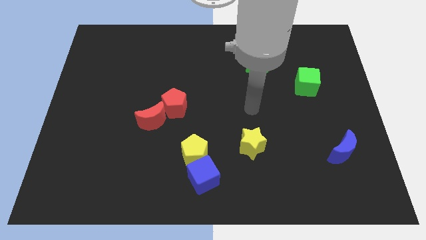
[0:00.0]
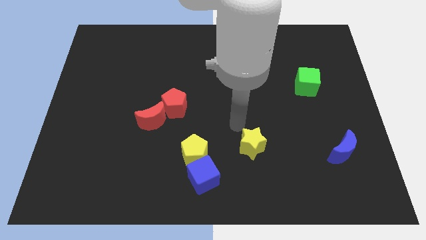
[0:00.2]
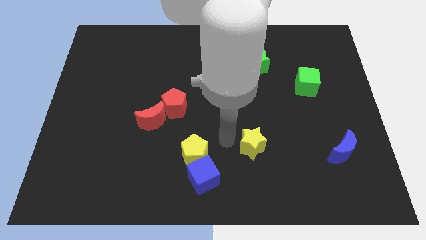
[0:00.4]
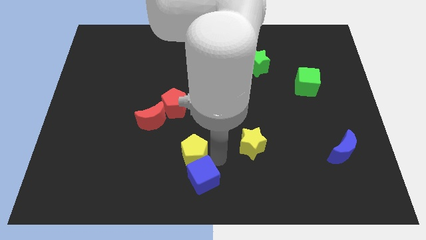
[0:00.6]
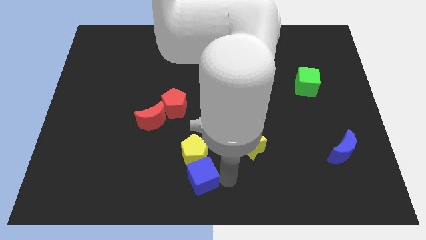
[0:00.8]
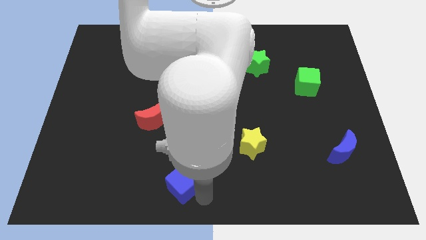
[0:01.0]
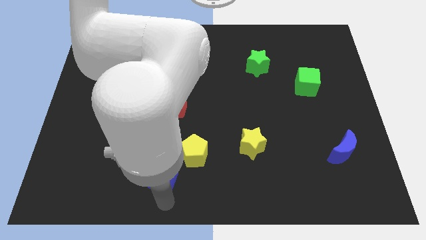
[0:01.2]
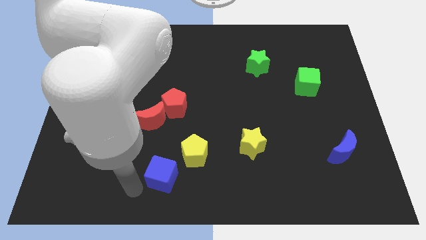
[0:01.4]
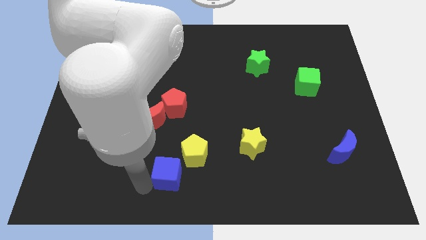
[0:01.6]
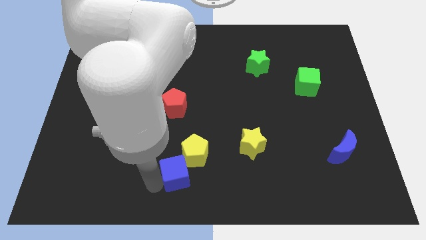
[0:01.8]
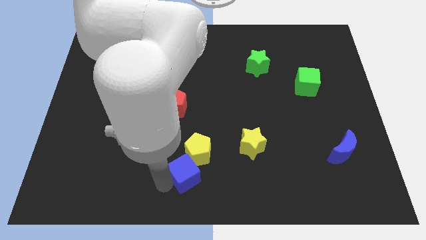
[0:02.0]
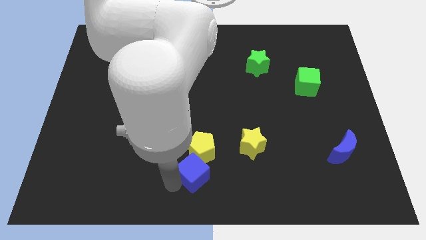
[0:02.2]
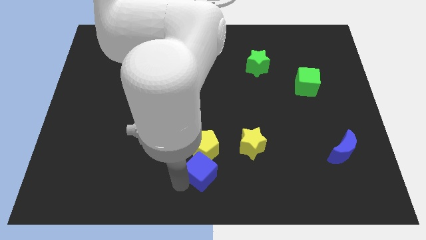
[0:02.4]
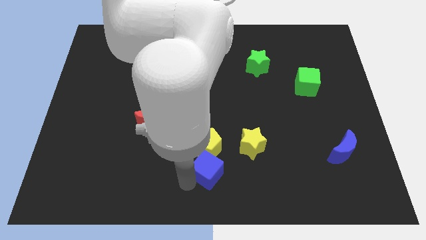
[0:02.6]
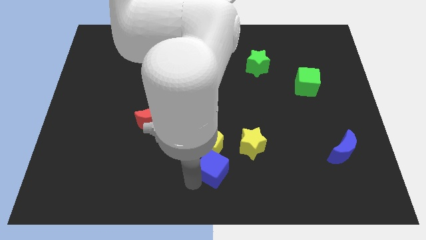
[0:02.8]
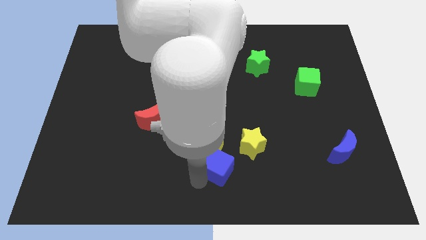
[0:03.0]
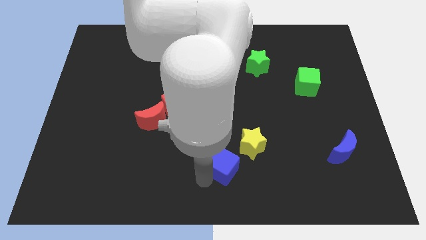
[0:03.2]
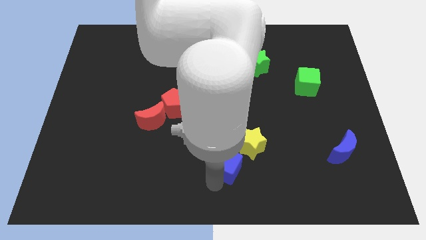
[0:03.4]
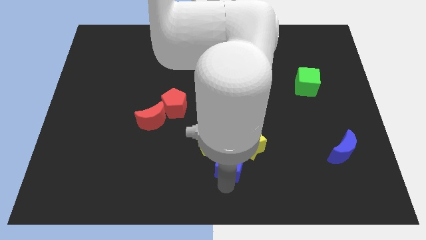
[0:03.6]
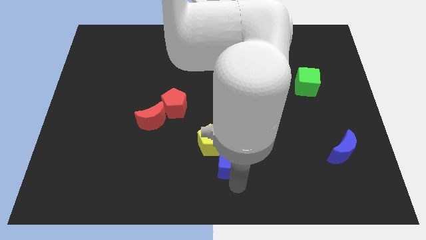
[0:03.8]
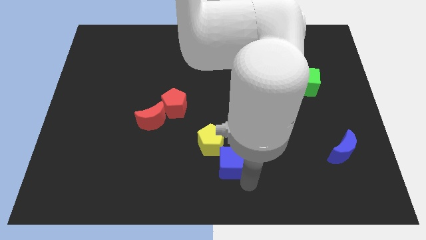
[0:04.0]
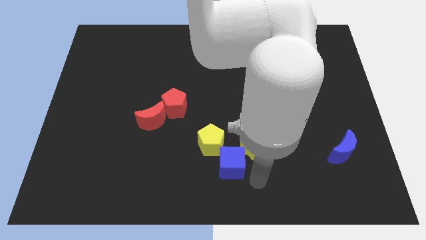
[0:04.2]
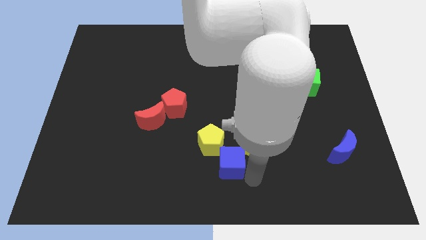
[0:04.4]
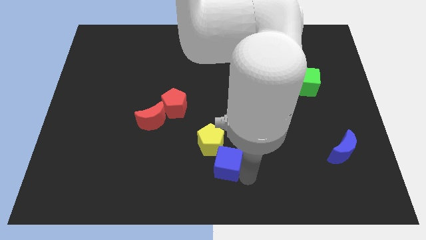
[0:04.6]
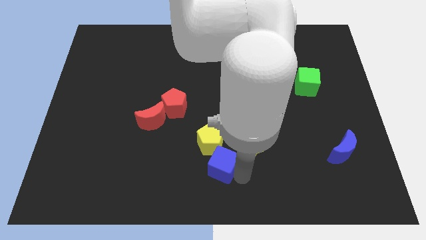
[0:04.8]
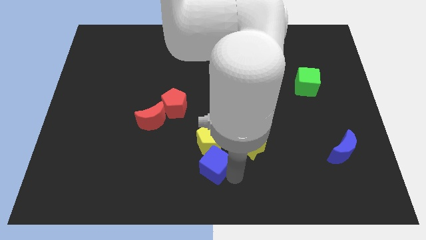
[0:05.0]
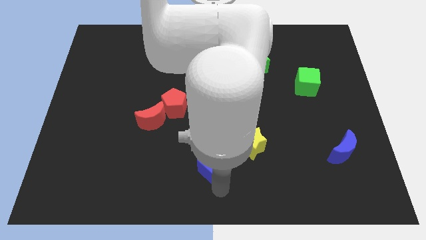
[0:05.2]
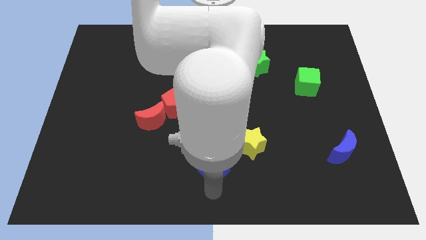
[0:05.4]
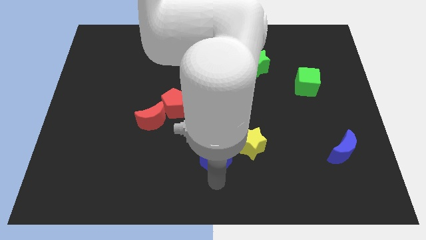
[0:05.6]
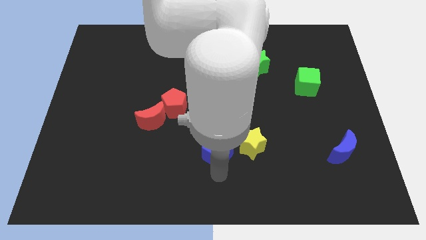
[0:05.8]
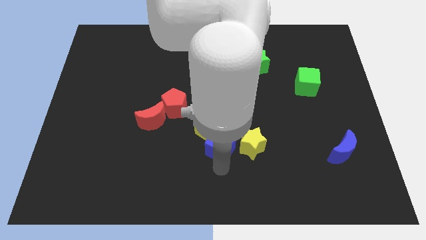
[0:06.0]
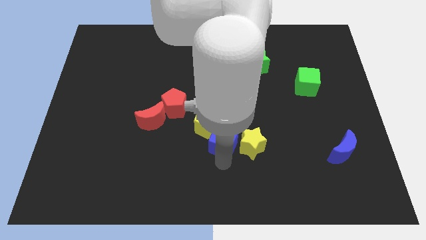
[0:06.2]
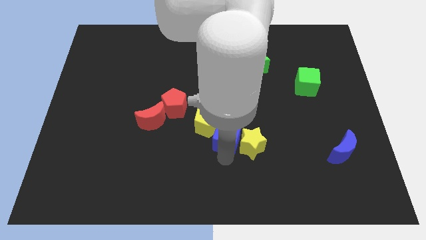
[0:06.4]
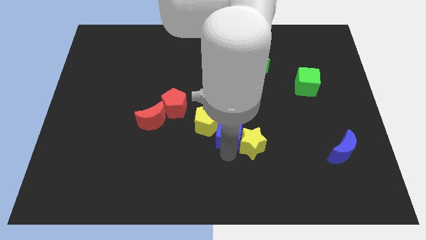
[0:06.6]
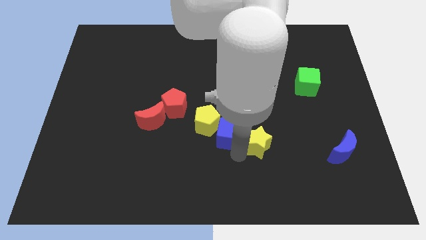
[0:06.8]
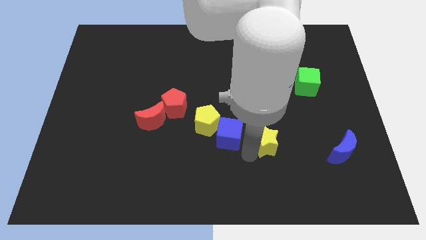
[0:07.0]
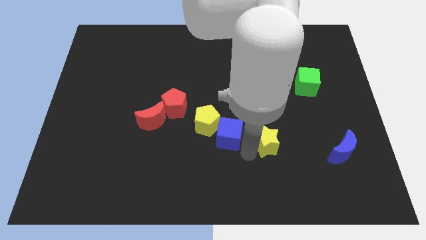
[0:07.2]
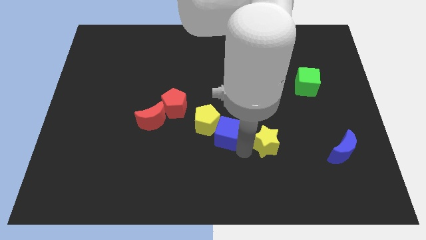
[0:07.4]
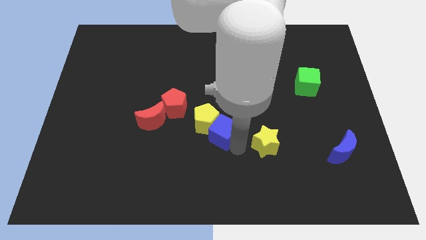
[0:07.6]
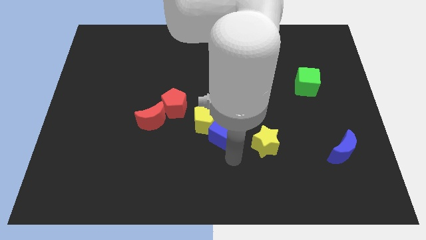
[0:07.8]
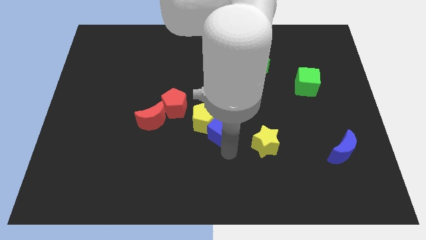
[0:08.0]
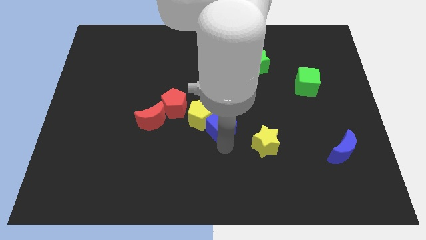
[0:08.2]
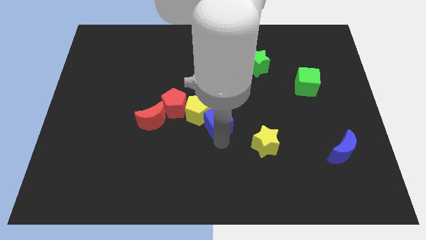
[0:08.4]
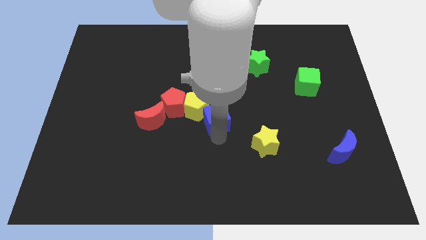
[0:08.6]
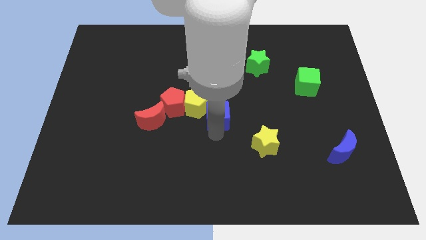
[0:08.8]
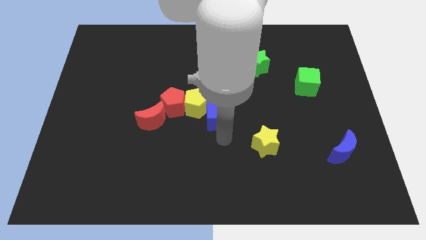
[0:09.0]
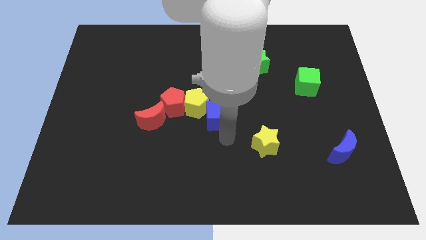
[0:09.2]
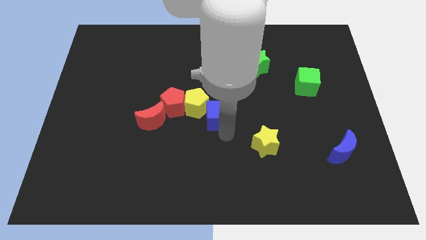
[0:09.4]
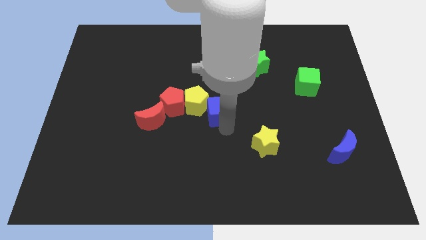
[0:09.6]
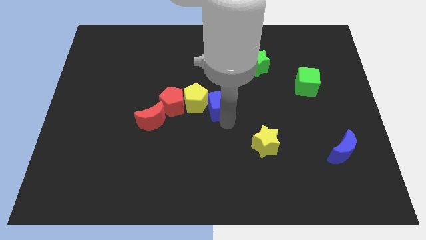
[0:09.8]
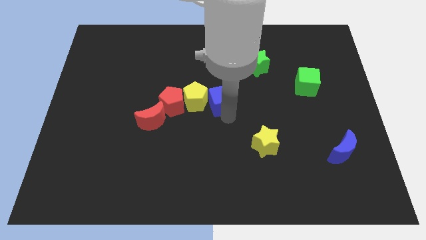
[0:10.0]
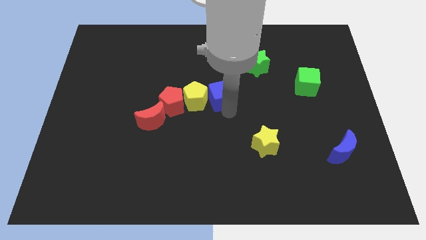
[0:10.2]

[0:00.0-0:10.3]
slide the blue cube up

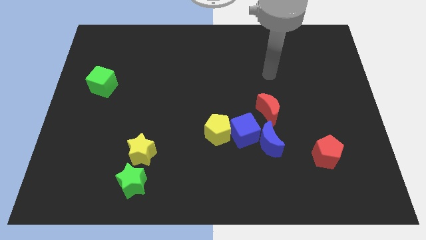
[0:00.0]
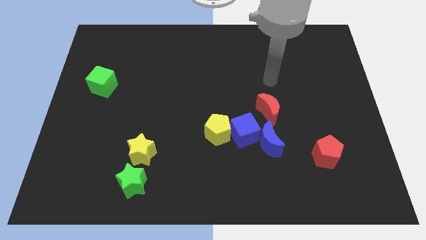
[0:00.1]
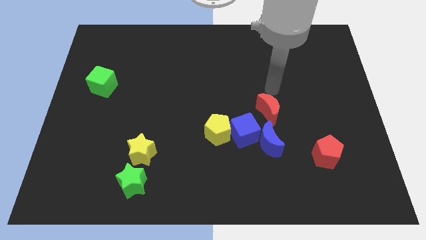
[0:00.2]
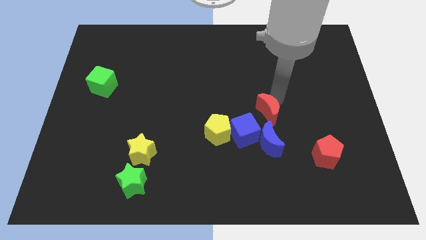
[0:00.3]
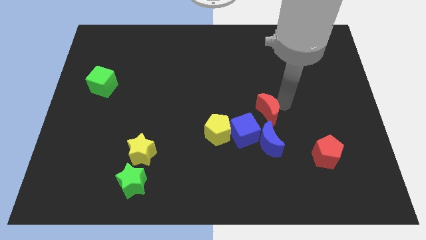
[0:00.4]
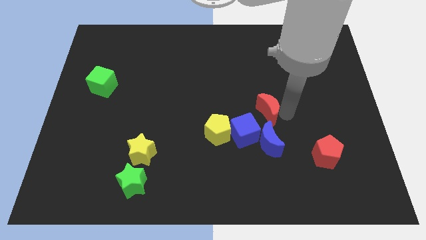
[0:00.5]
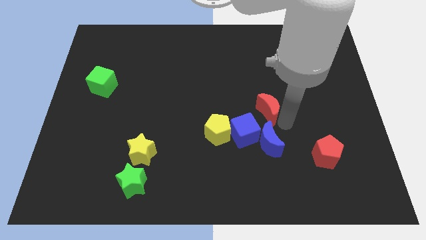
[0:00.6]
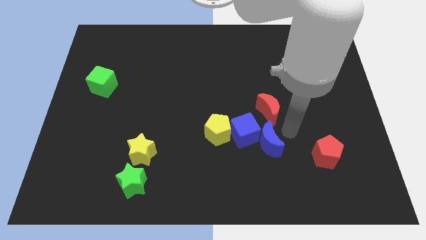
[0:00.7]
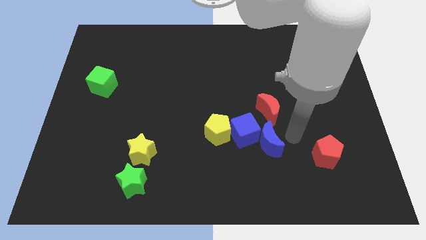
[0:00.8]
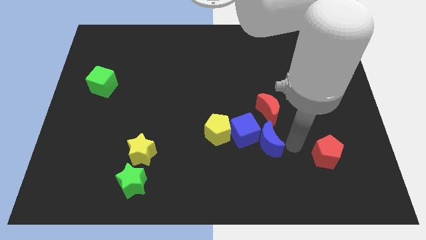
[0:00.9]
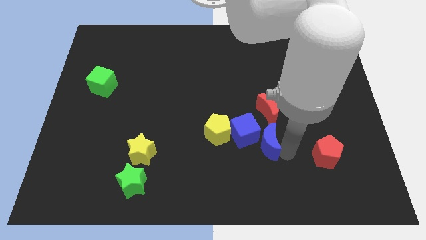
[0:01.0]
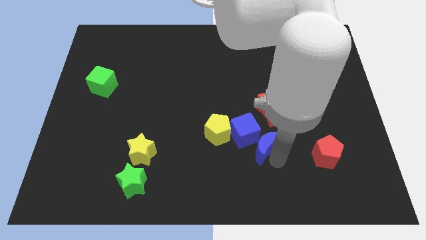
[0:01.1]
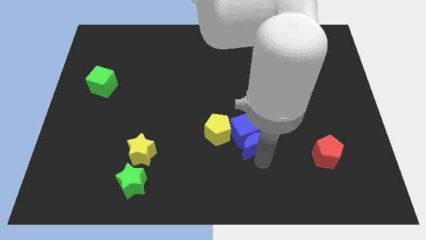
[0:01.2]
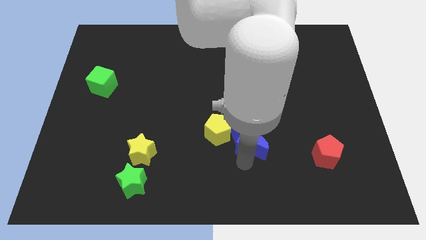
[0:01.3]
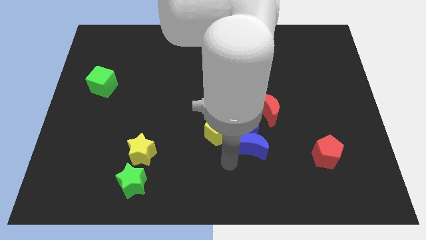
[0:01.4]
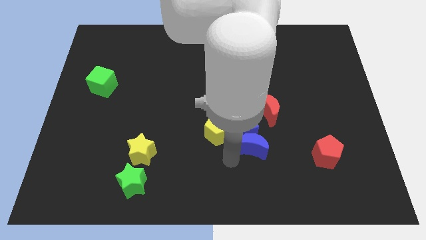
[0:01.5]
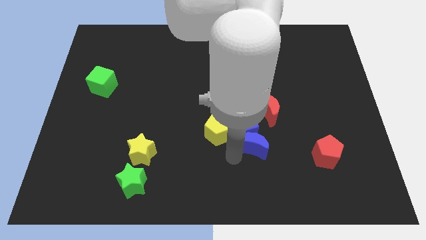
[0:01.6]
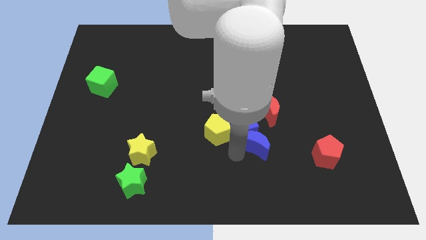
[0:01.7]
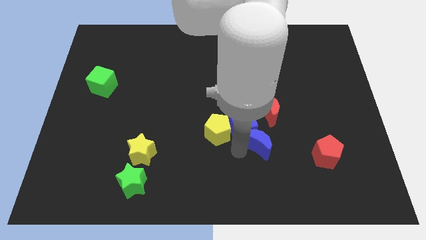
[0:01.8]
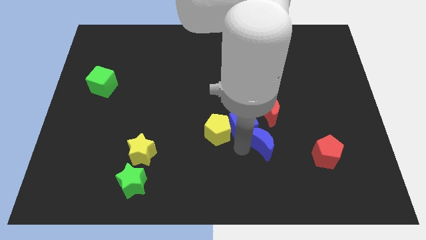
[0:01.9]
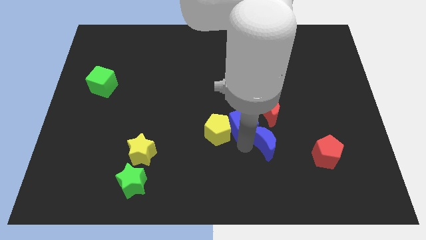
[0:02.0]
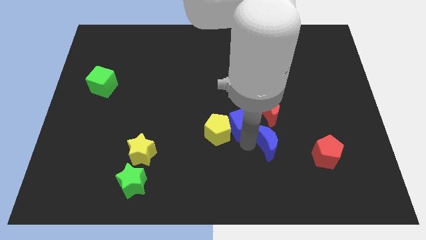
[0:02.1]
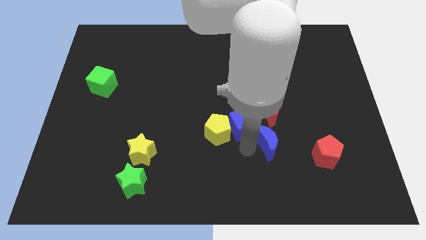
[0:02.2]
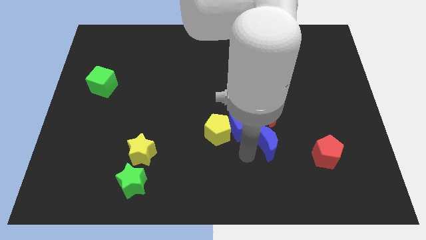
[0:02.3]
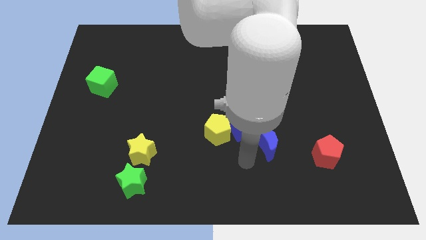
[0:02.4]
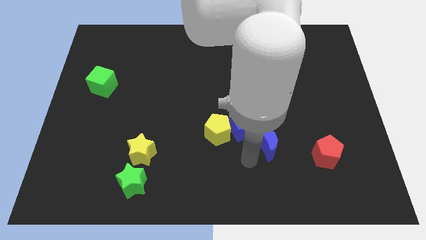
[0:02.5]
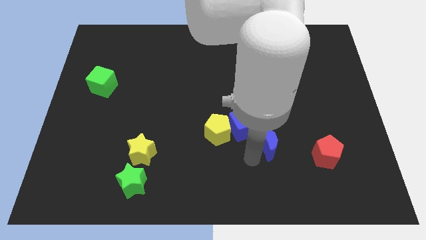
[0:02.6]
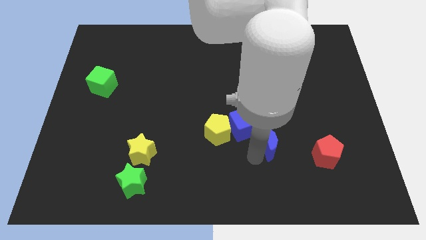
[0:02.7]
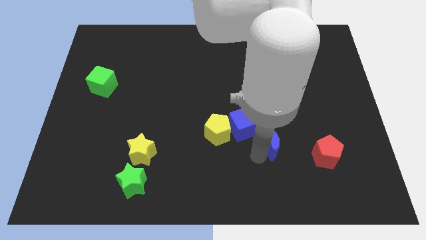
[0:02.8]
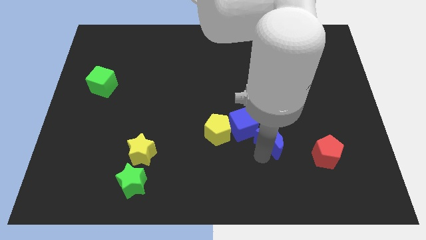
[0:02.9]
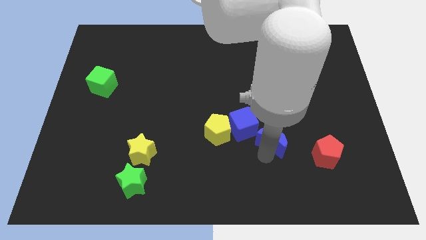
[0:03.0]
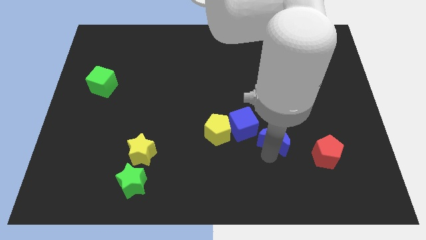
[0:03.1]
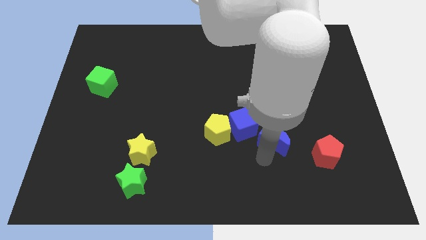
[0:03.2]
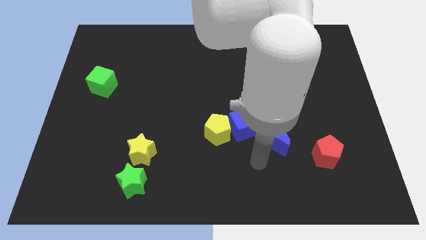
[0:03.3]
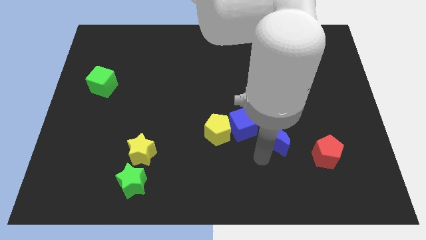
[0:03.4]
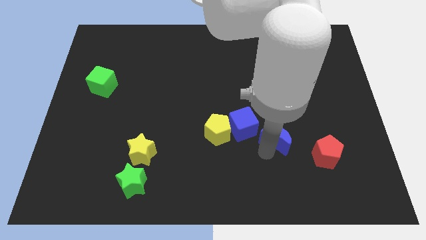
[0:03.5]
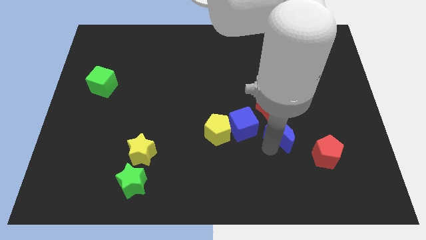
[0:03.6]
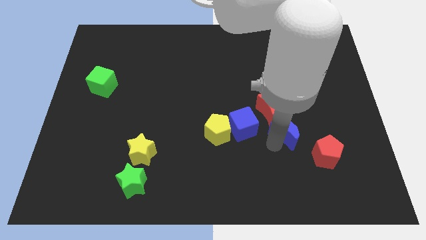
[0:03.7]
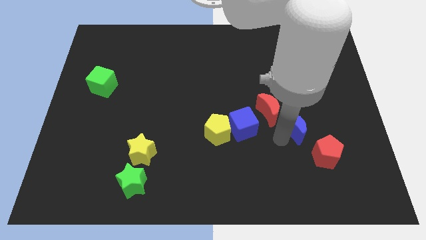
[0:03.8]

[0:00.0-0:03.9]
move the blue moon somewhat up and to the right diagonally
